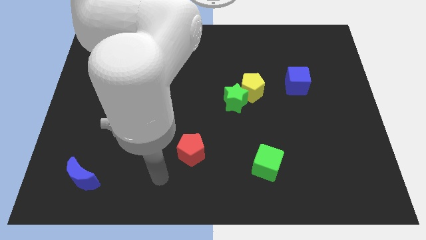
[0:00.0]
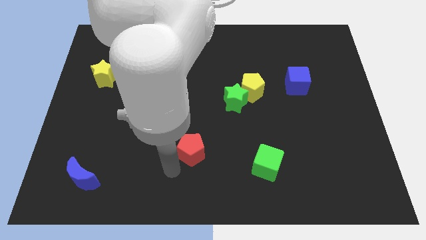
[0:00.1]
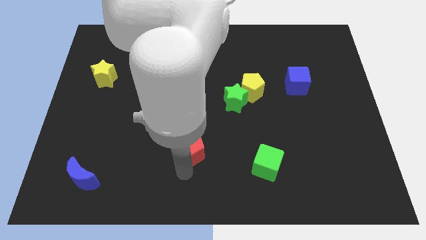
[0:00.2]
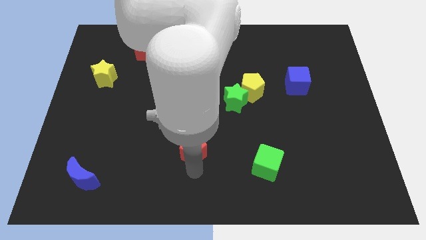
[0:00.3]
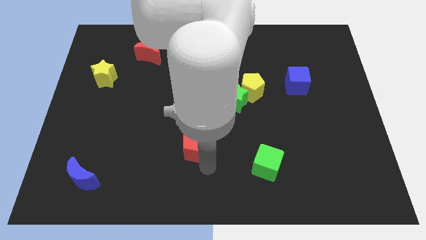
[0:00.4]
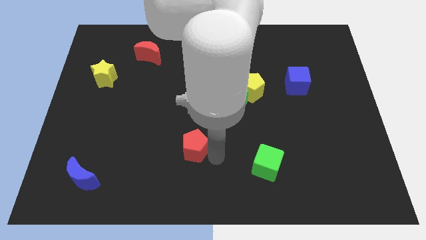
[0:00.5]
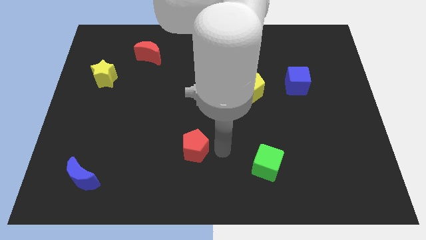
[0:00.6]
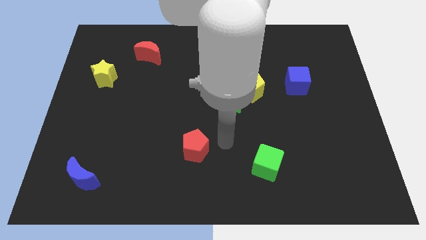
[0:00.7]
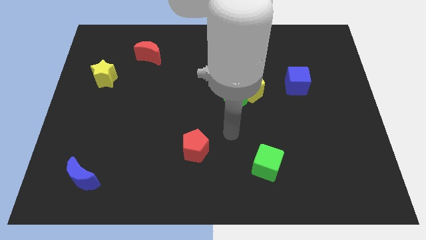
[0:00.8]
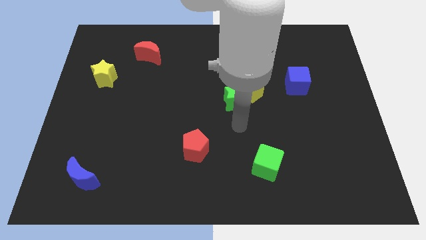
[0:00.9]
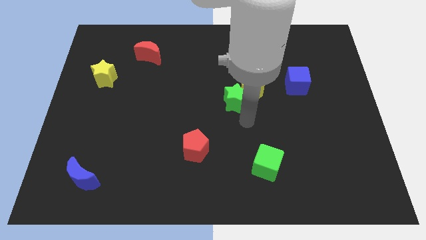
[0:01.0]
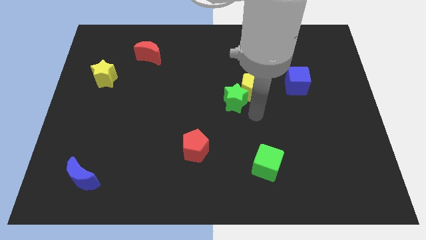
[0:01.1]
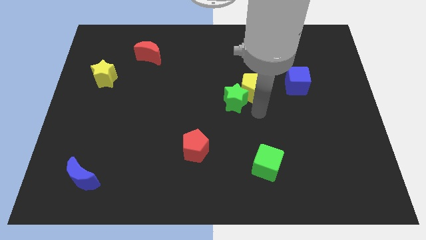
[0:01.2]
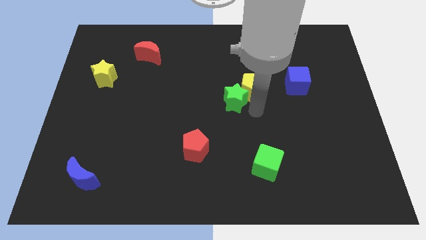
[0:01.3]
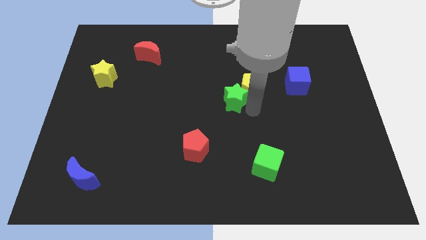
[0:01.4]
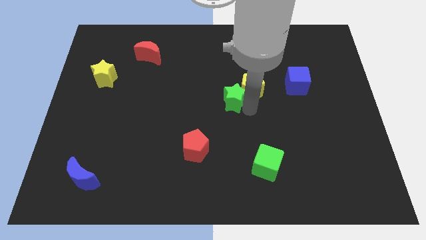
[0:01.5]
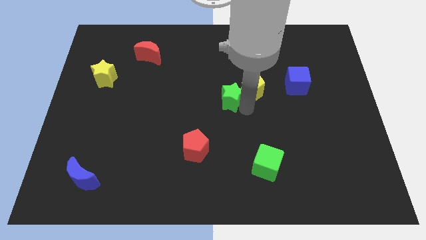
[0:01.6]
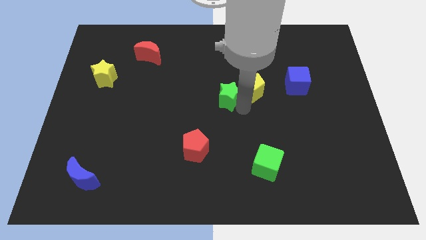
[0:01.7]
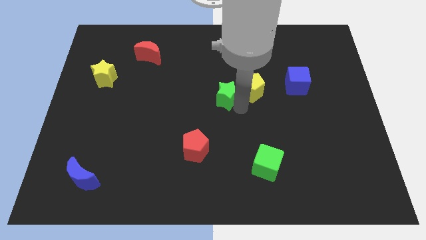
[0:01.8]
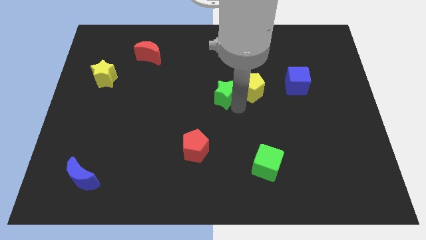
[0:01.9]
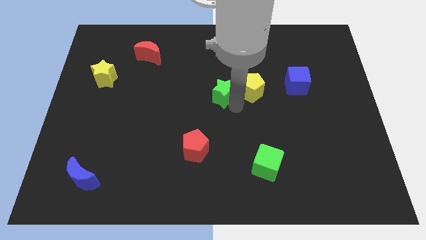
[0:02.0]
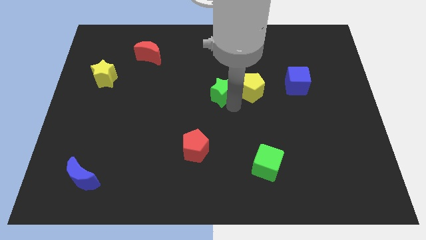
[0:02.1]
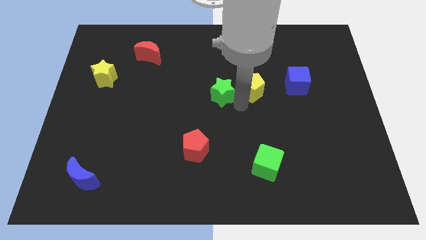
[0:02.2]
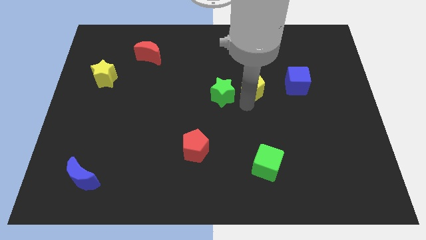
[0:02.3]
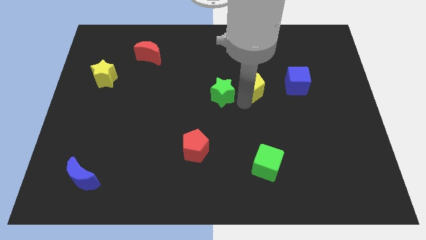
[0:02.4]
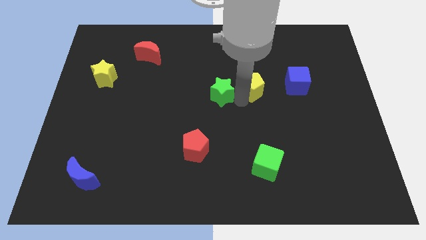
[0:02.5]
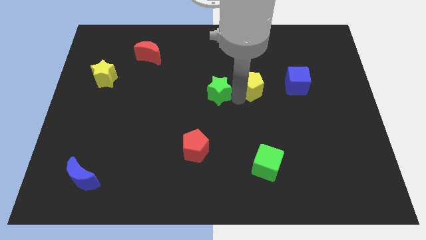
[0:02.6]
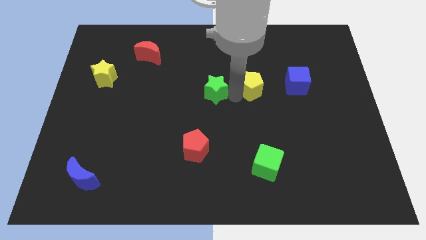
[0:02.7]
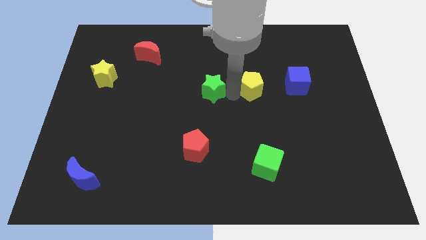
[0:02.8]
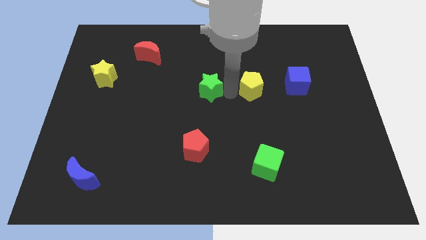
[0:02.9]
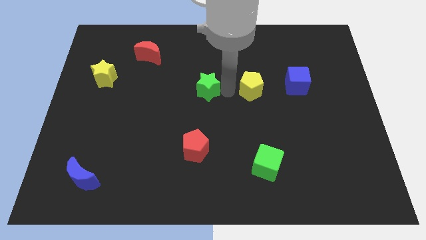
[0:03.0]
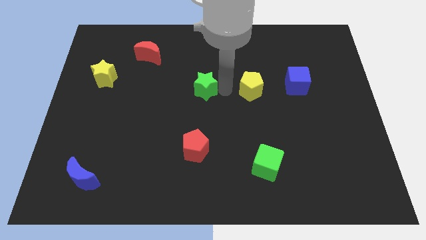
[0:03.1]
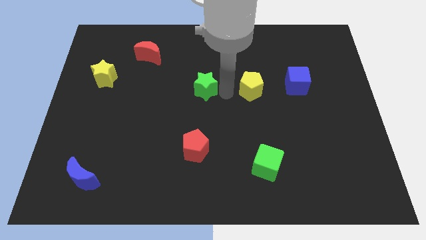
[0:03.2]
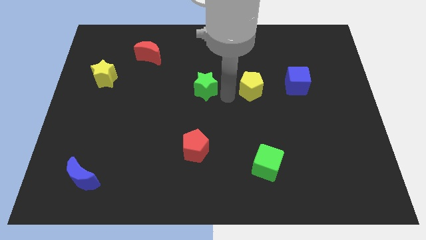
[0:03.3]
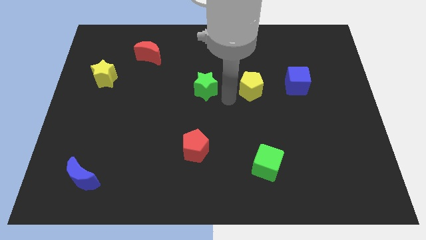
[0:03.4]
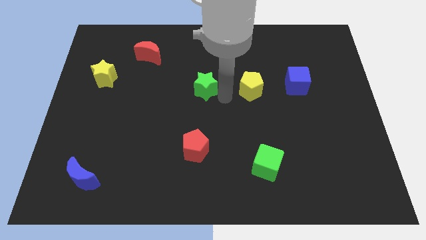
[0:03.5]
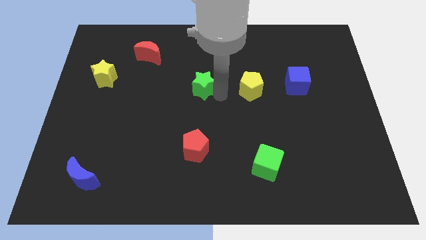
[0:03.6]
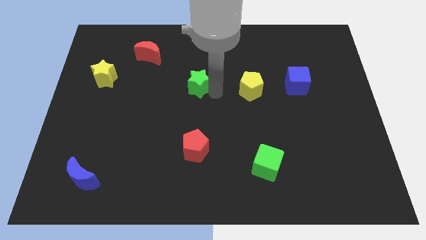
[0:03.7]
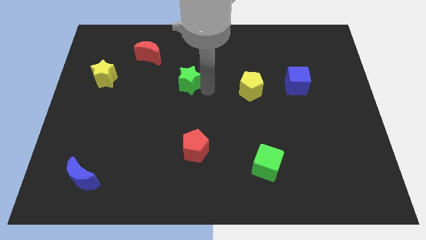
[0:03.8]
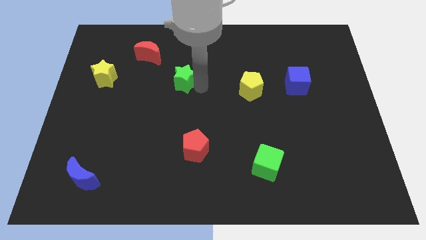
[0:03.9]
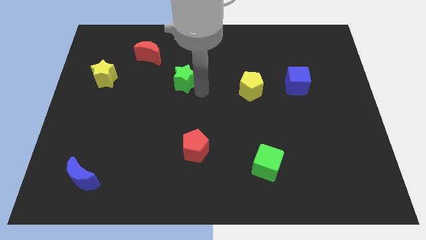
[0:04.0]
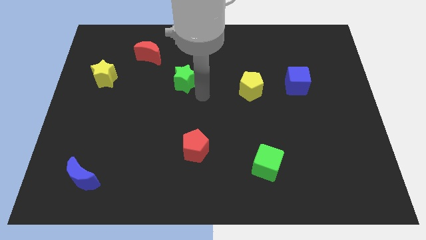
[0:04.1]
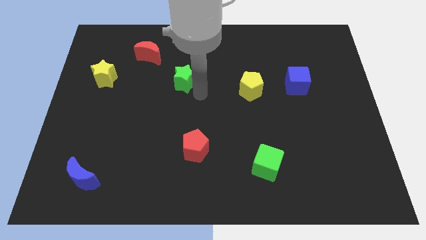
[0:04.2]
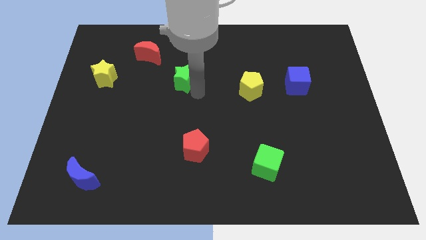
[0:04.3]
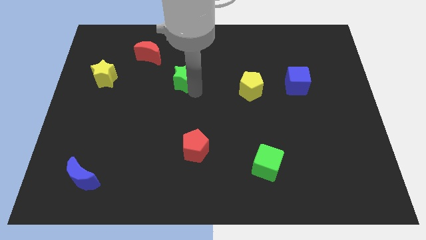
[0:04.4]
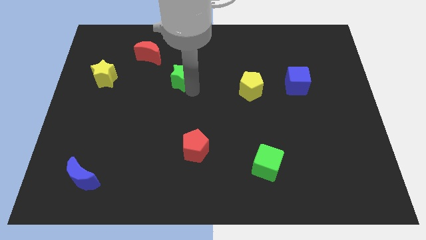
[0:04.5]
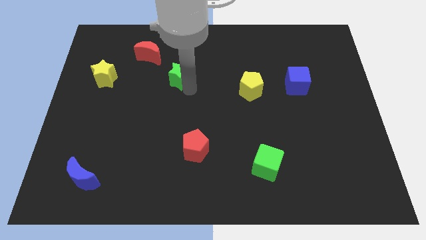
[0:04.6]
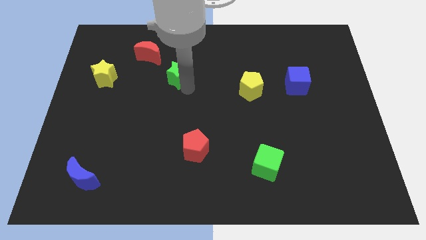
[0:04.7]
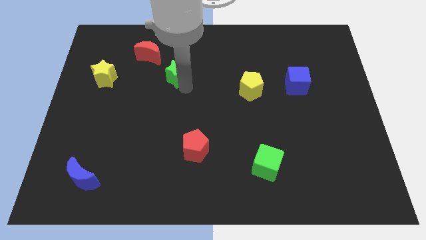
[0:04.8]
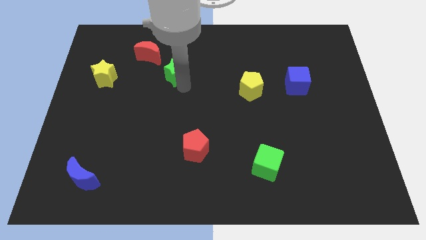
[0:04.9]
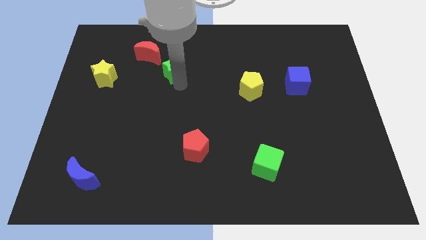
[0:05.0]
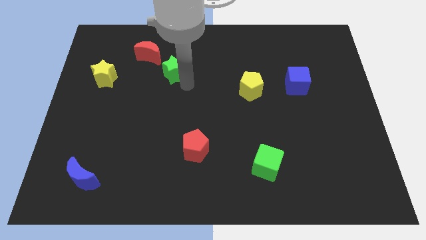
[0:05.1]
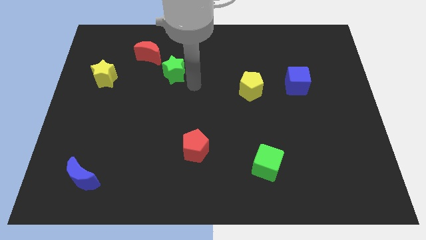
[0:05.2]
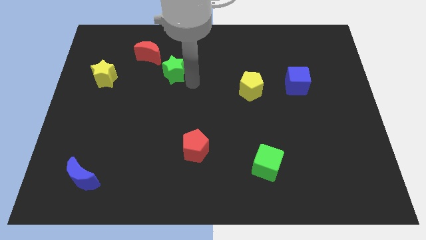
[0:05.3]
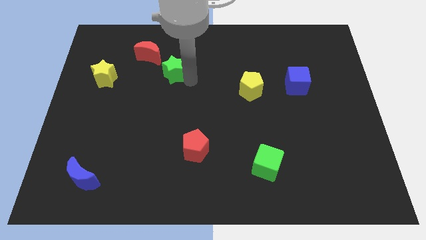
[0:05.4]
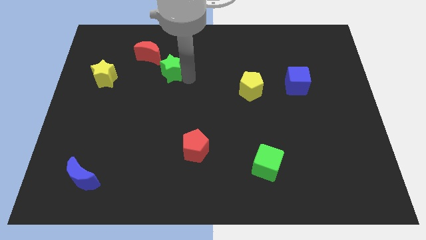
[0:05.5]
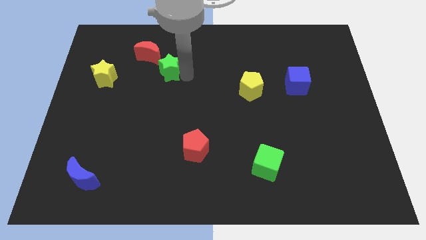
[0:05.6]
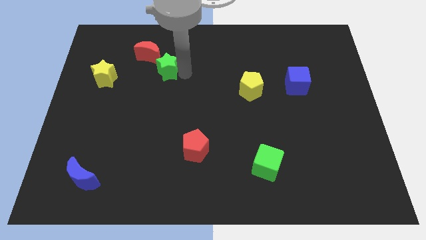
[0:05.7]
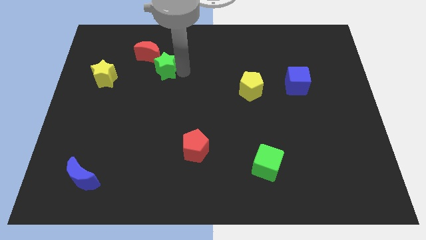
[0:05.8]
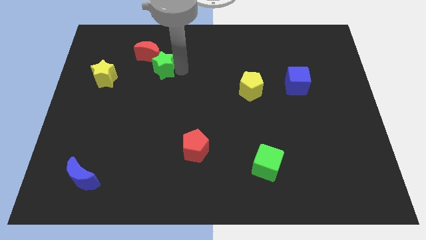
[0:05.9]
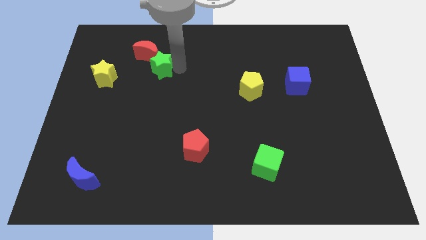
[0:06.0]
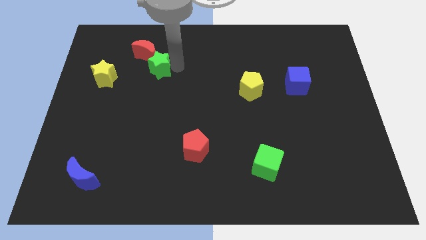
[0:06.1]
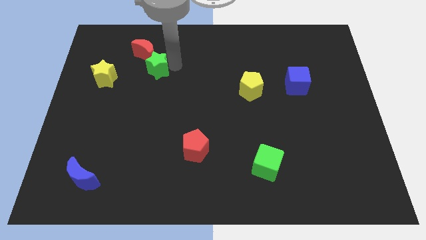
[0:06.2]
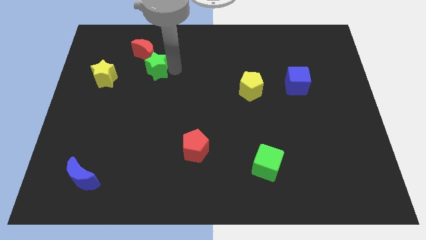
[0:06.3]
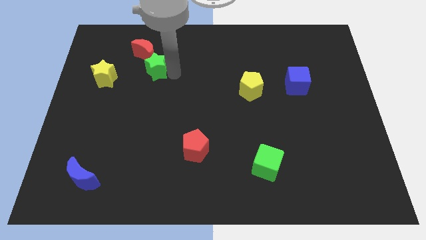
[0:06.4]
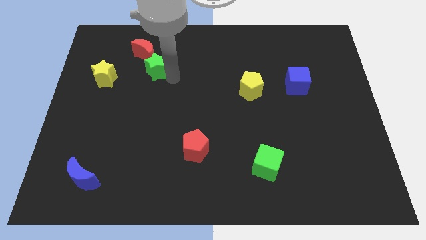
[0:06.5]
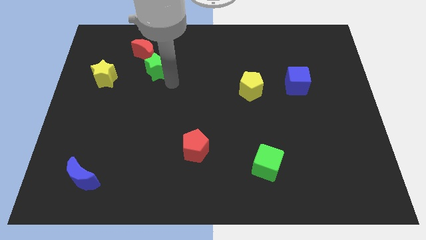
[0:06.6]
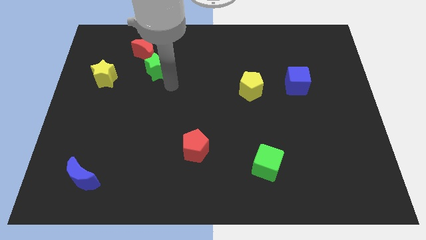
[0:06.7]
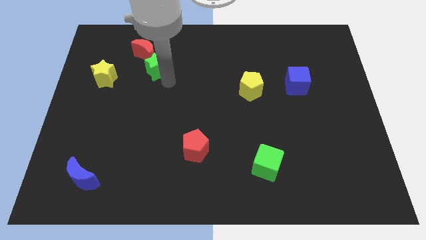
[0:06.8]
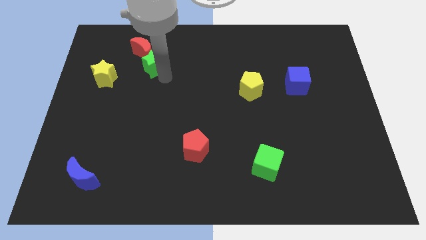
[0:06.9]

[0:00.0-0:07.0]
push the green star next to the red moon
